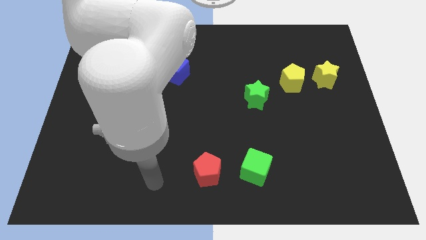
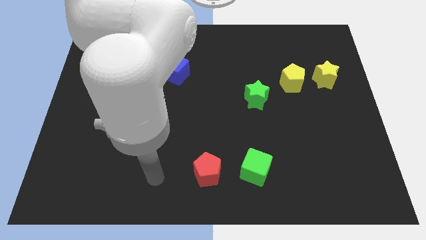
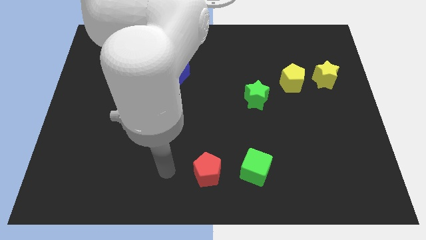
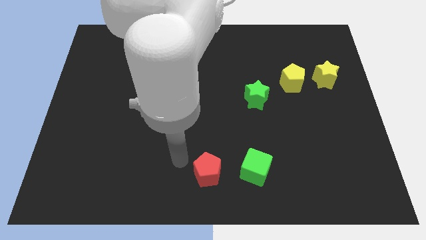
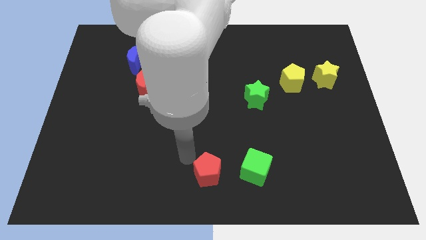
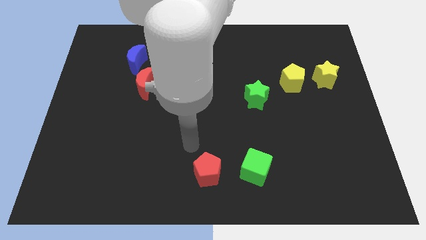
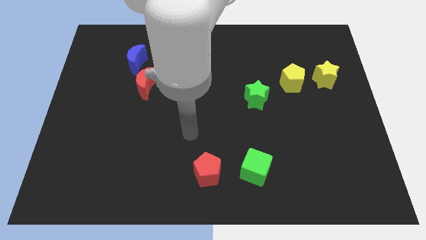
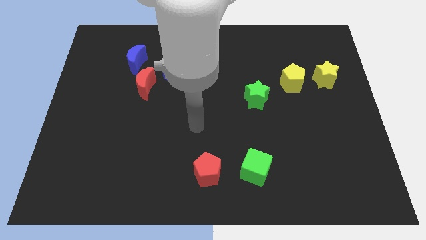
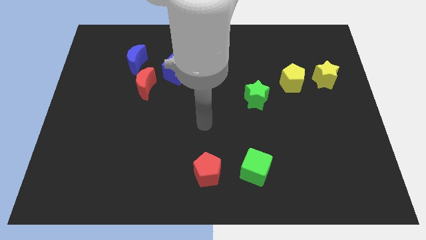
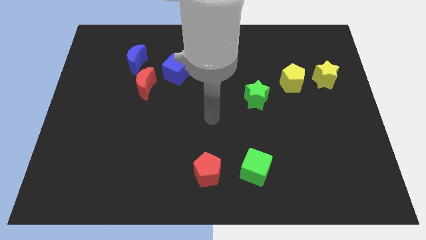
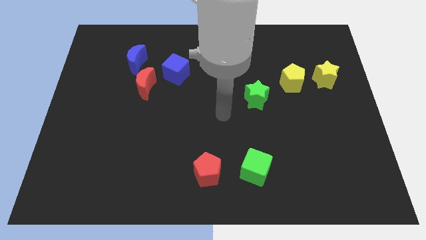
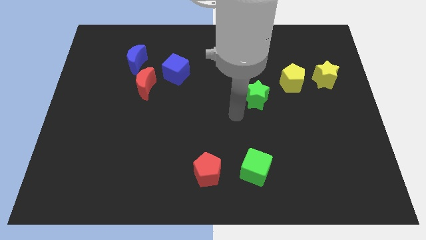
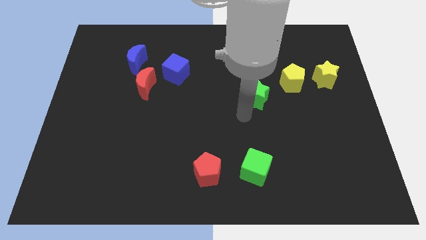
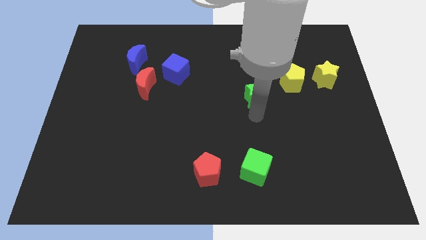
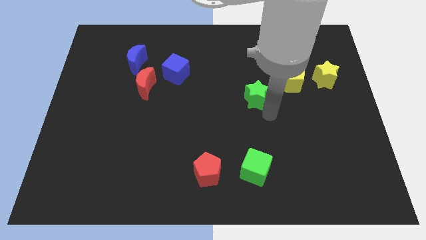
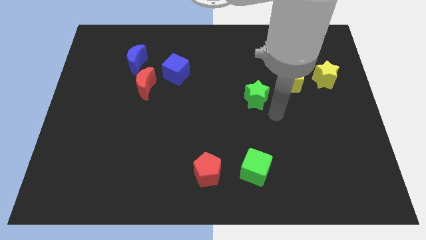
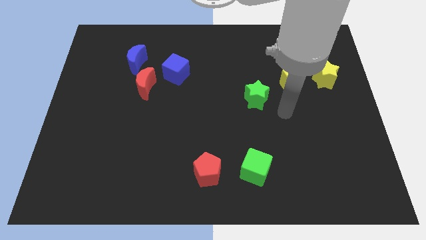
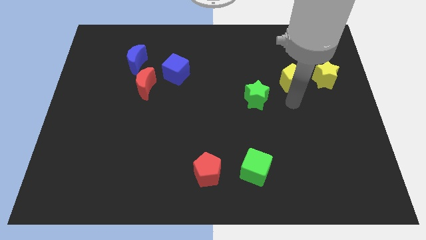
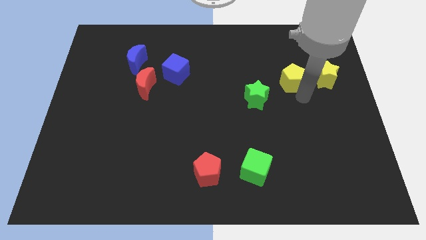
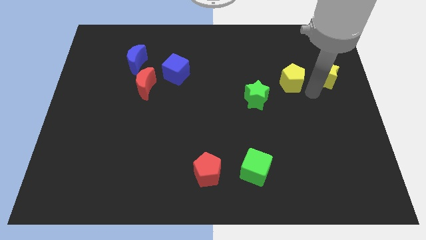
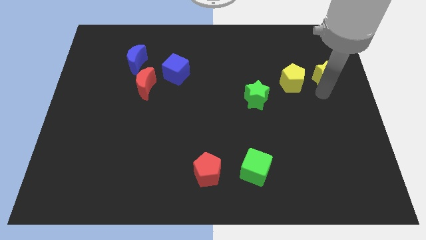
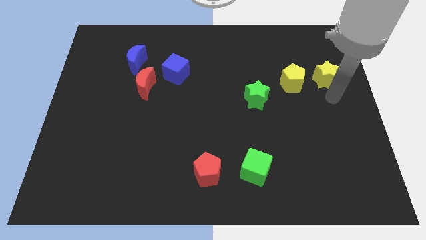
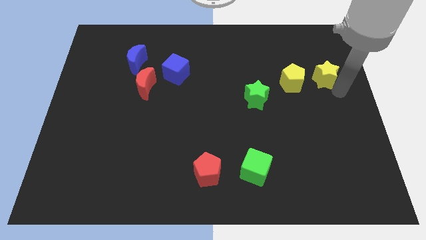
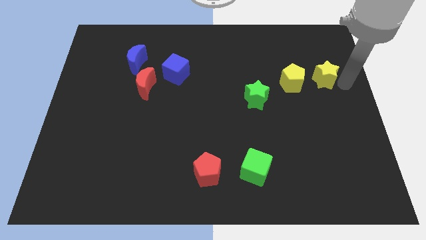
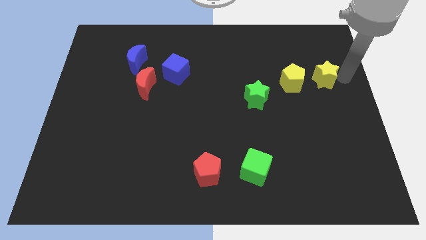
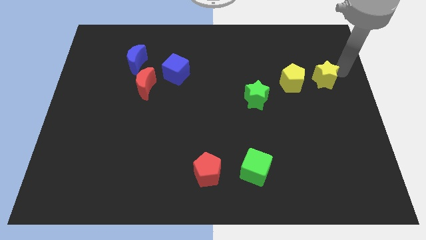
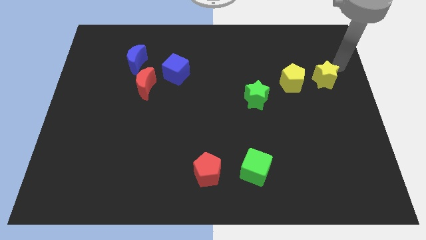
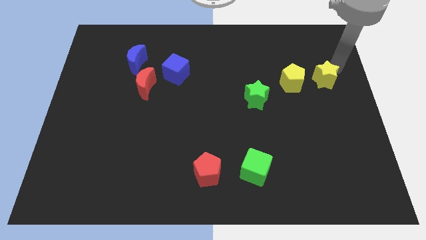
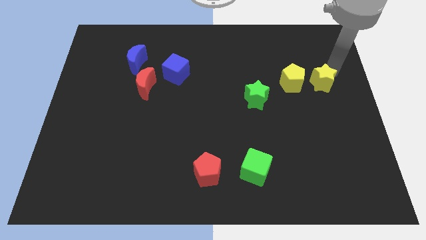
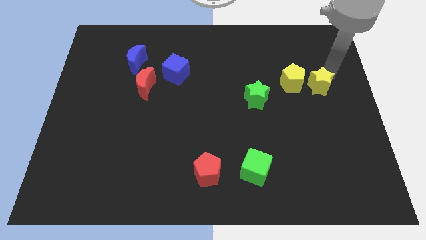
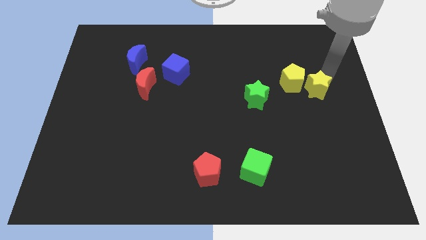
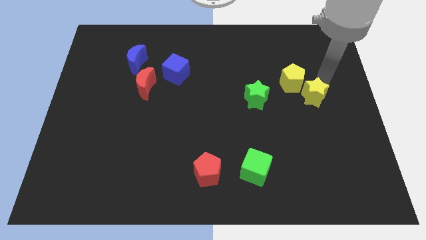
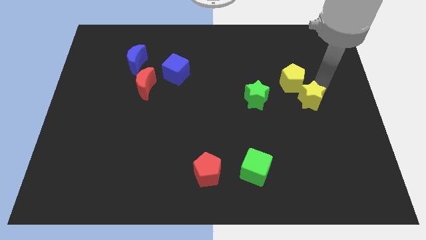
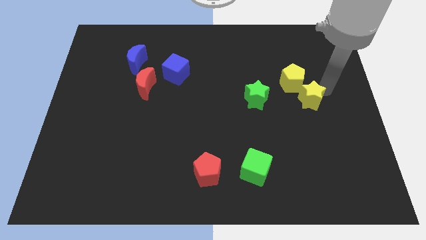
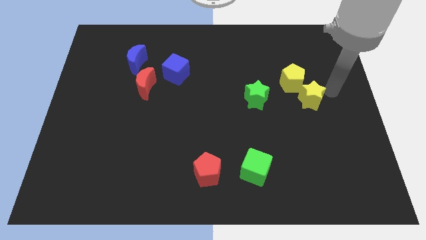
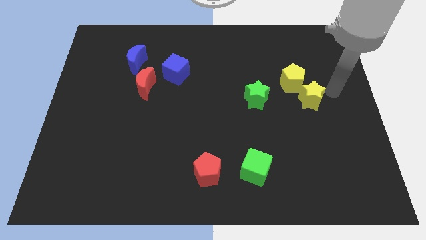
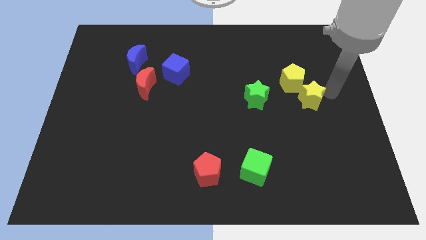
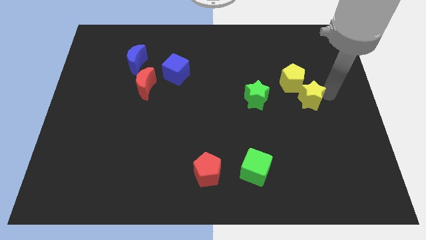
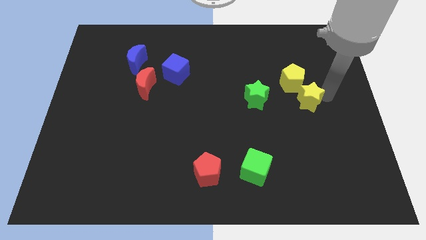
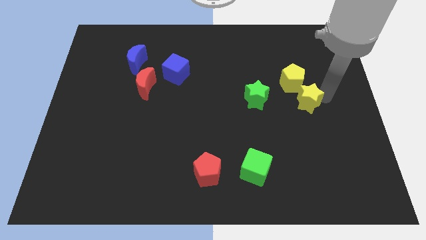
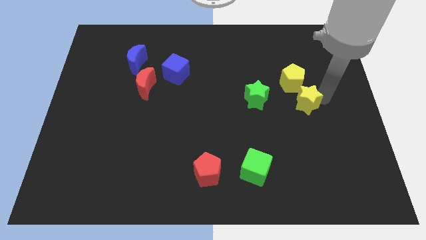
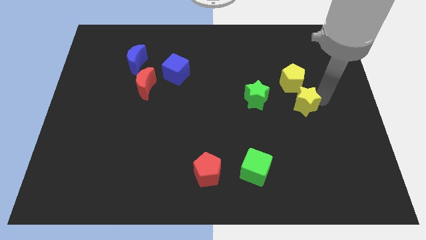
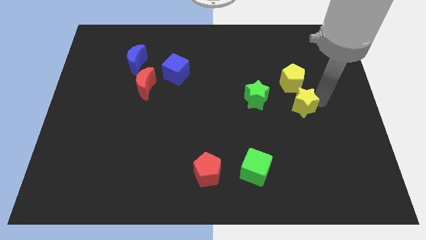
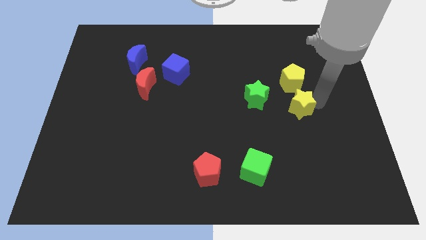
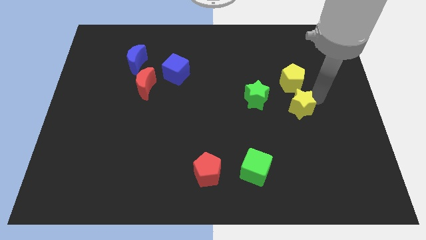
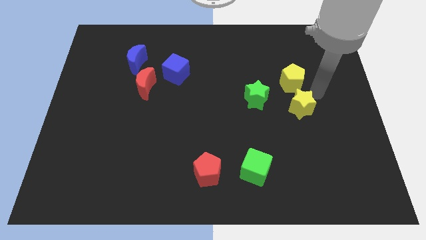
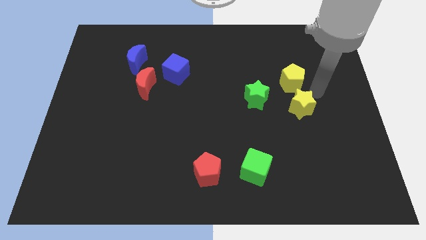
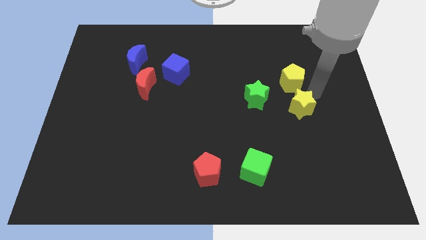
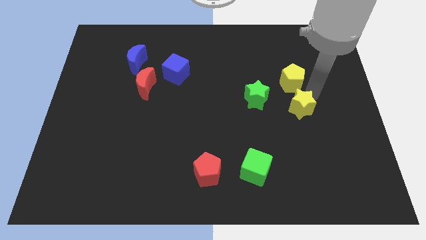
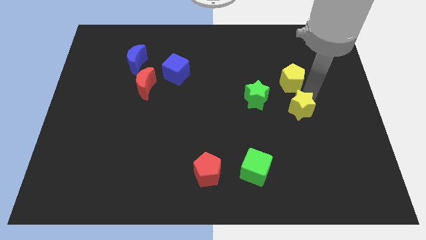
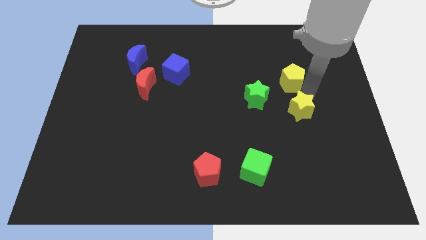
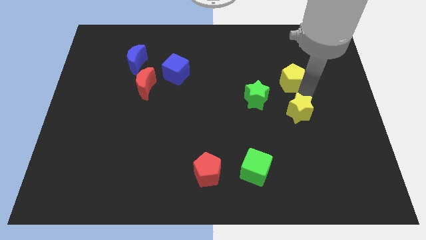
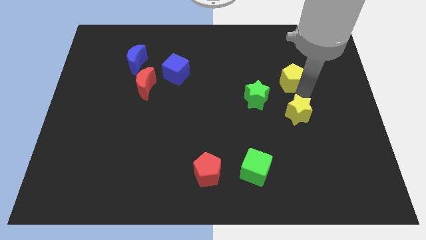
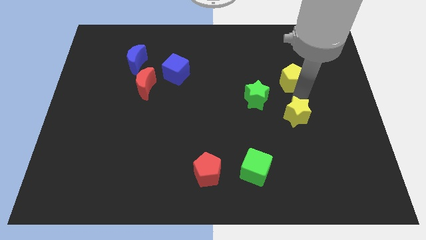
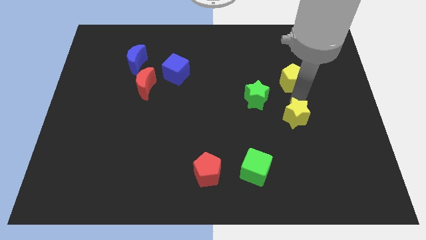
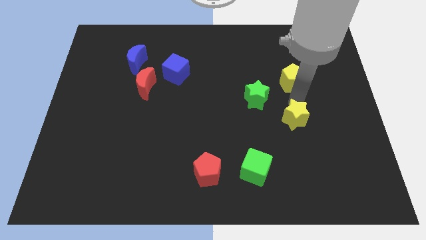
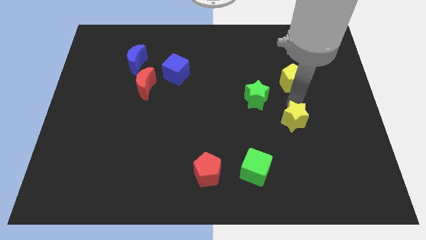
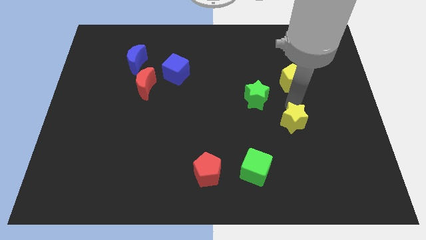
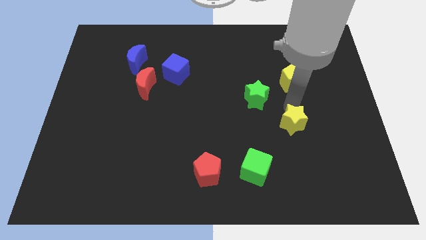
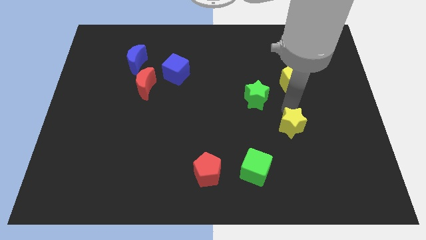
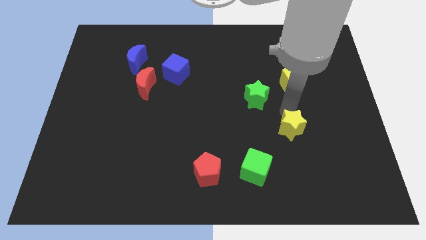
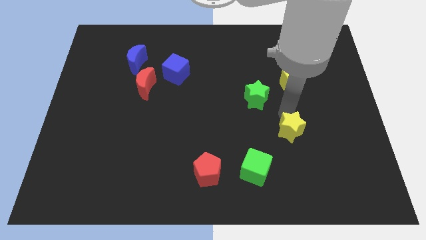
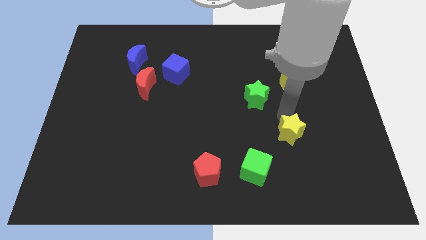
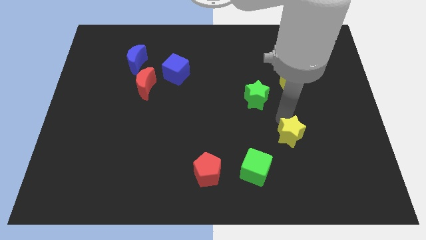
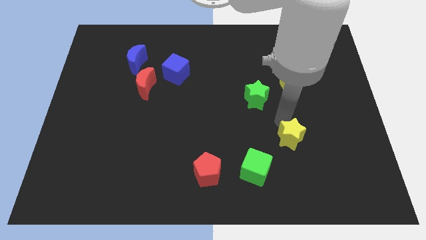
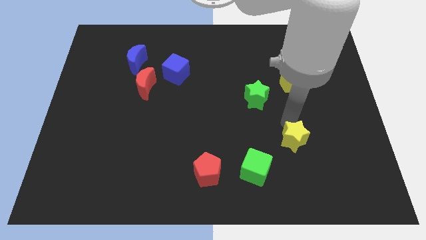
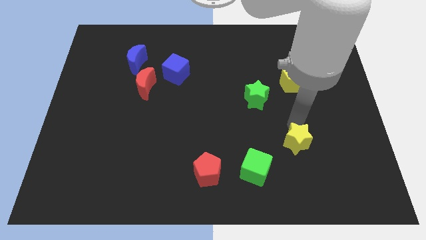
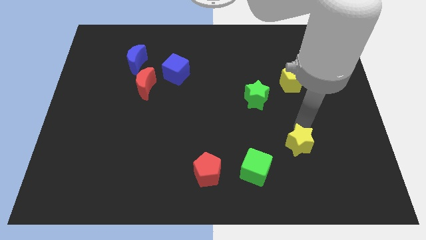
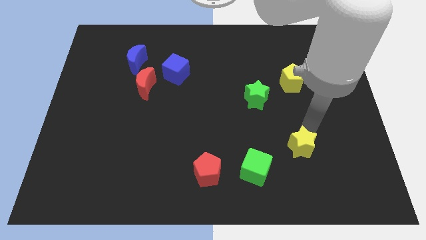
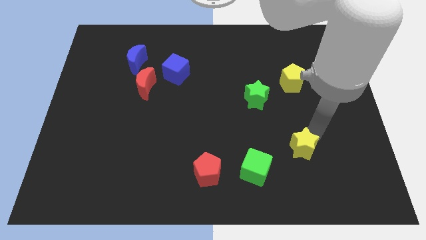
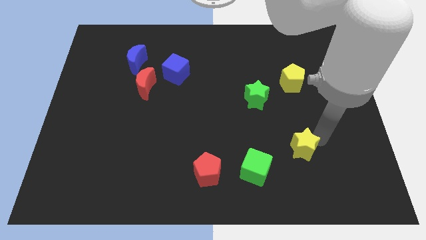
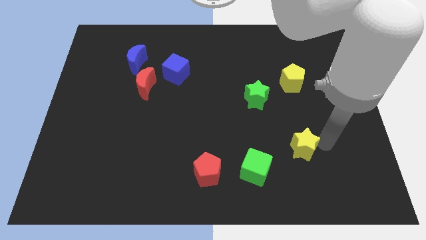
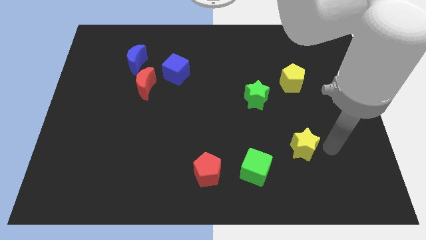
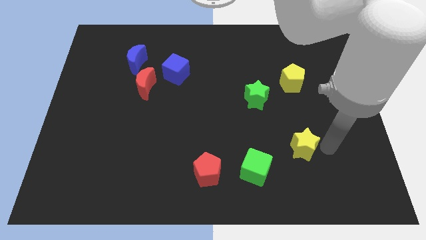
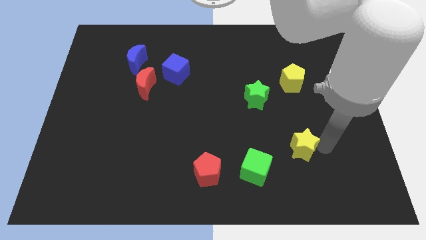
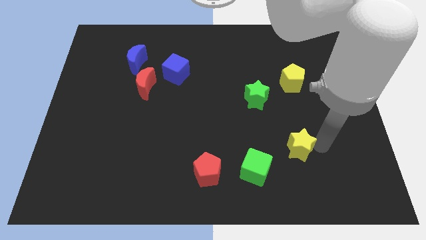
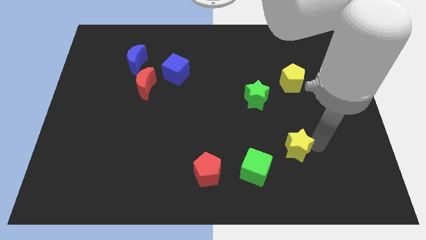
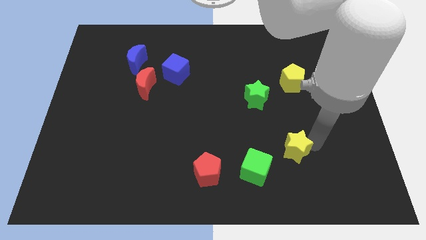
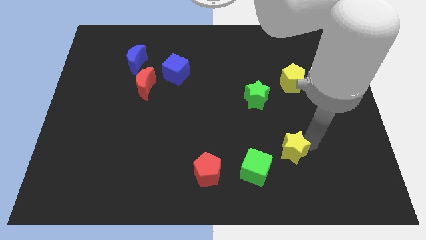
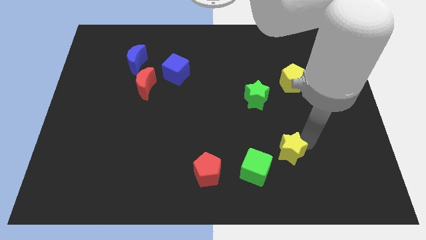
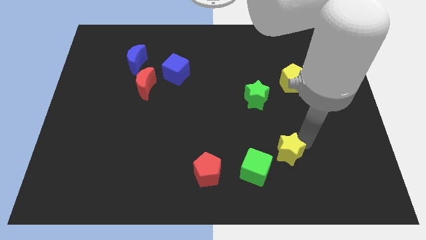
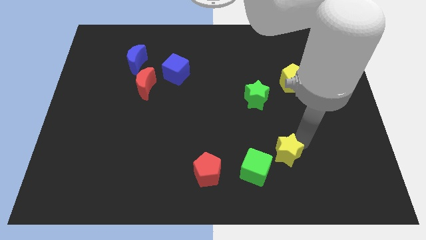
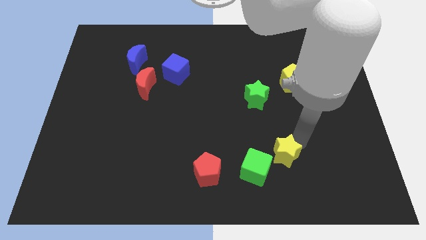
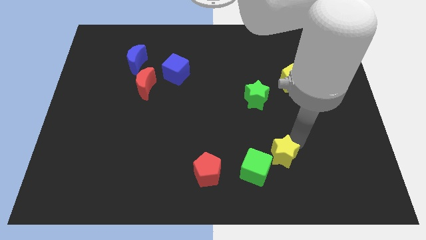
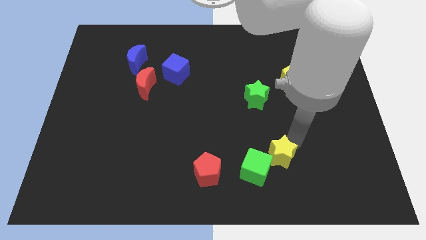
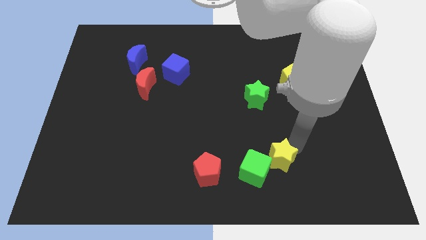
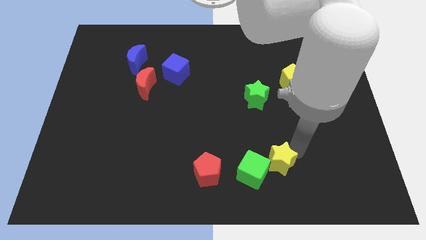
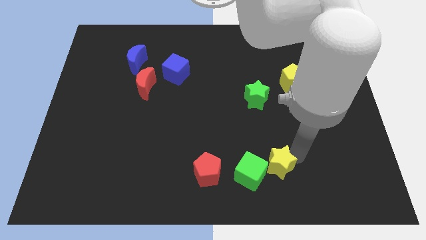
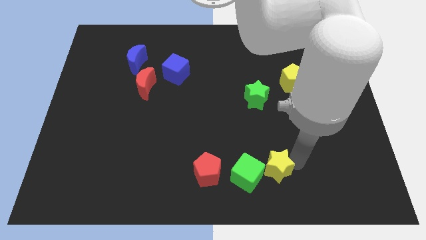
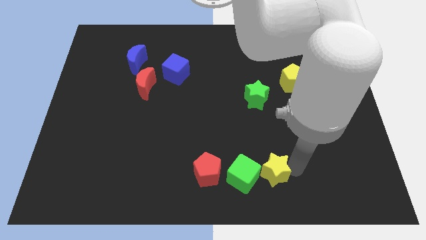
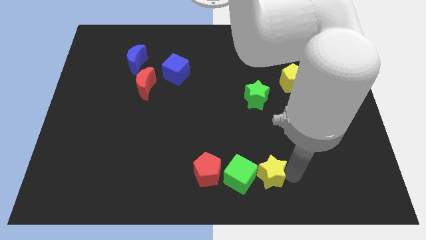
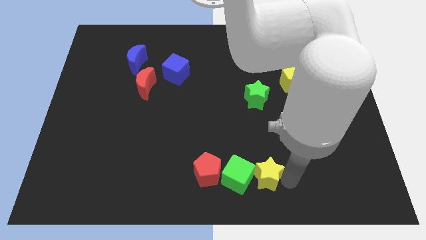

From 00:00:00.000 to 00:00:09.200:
move the yellow star close to the green cube
